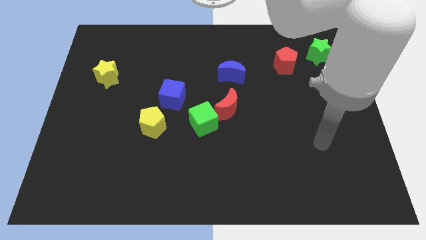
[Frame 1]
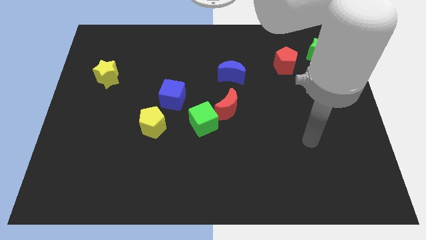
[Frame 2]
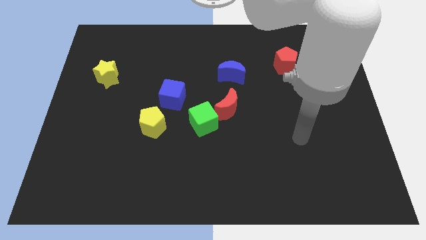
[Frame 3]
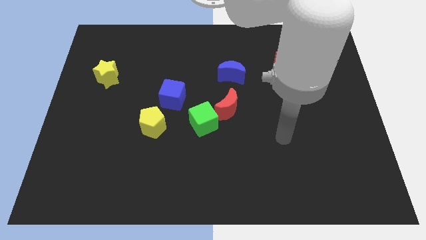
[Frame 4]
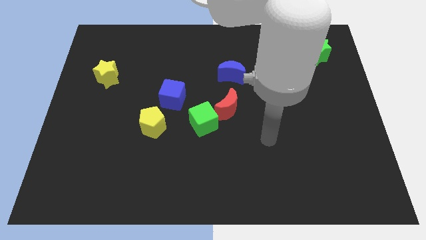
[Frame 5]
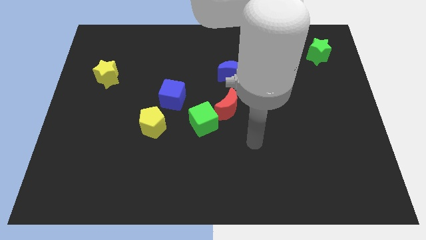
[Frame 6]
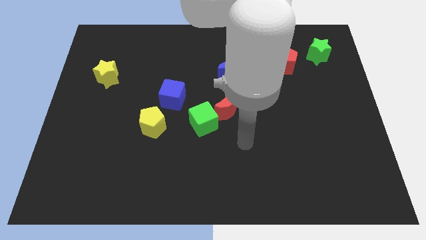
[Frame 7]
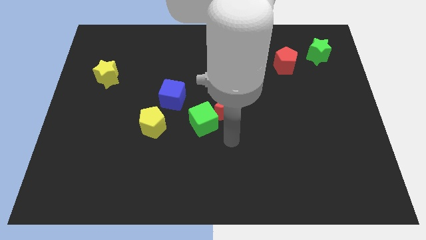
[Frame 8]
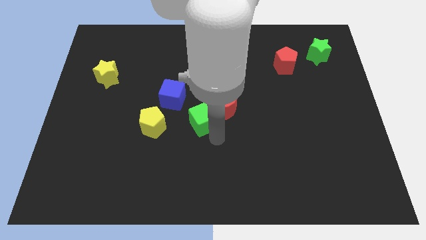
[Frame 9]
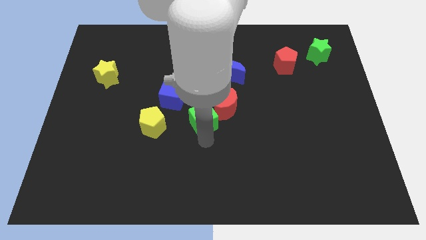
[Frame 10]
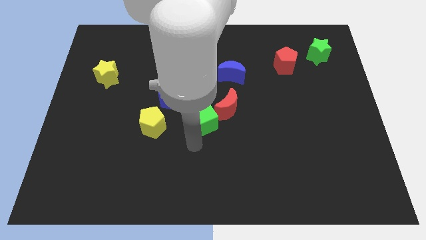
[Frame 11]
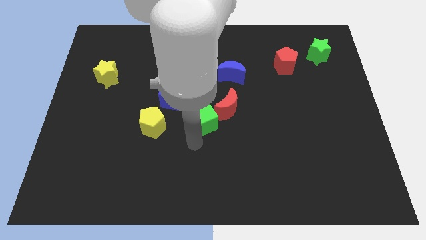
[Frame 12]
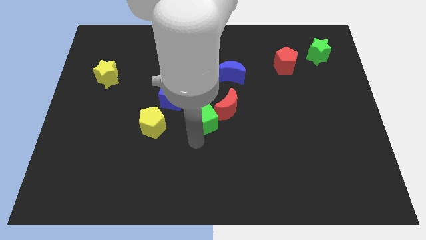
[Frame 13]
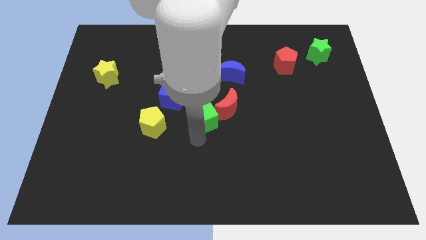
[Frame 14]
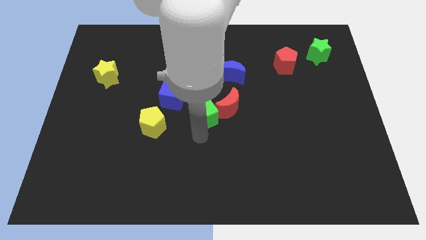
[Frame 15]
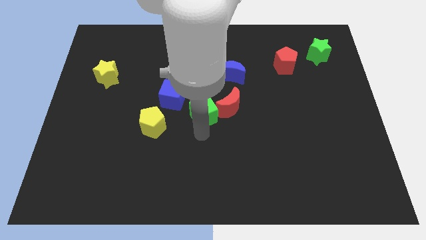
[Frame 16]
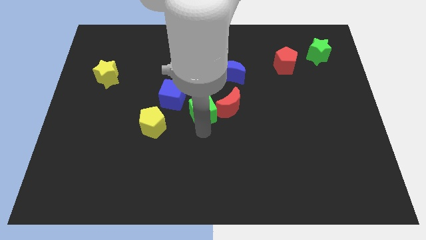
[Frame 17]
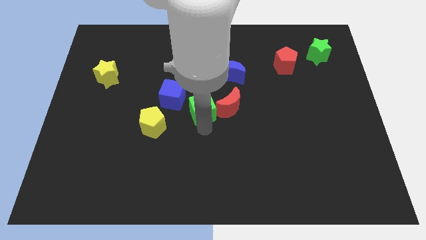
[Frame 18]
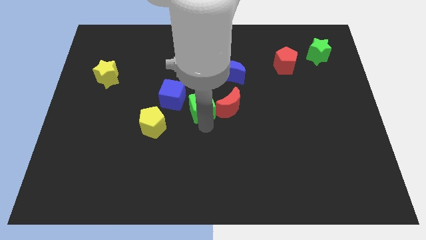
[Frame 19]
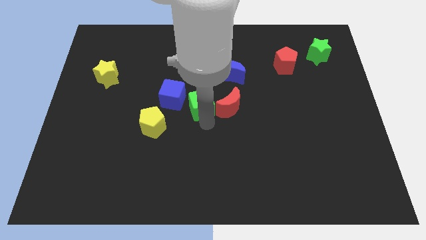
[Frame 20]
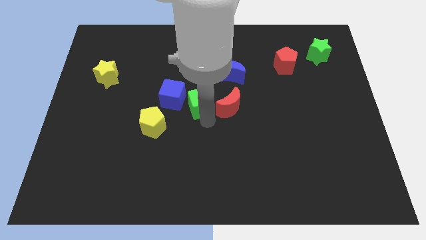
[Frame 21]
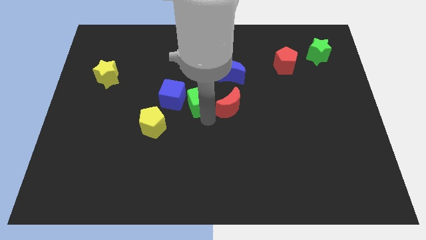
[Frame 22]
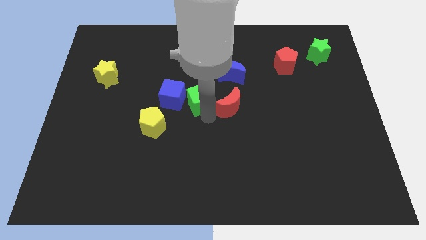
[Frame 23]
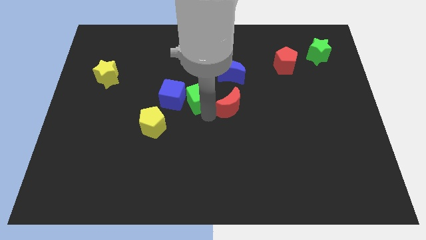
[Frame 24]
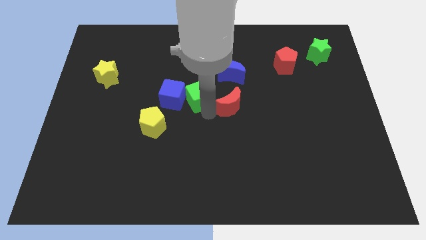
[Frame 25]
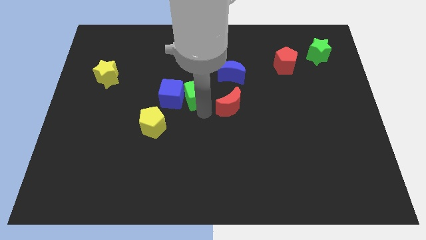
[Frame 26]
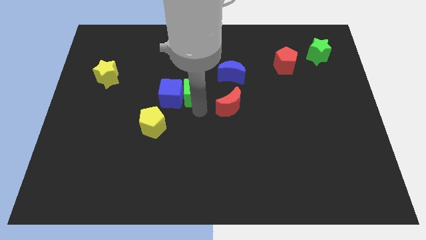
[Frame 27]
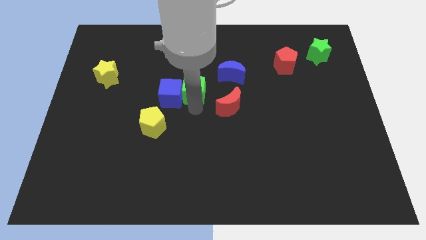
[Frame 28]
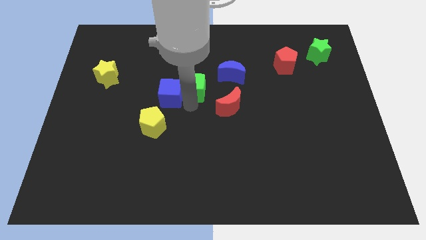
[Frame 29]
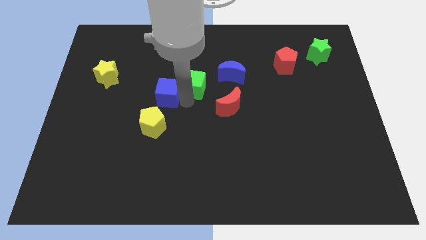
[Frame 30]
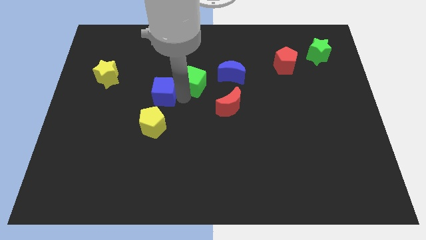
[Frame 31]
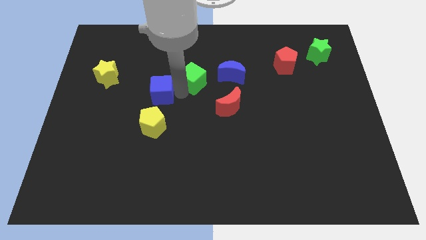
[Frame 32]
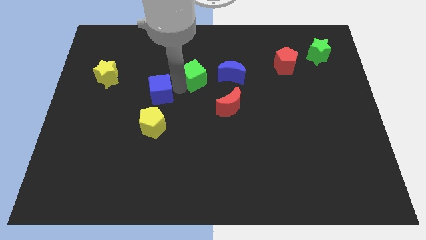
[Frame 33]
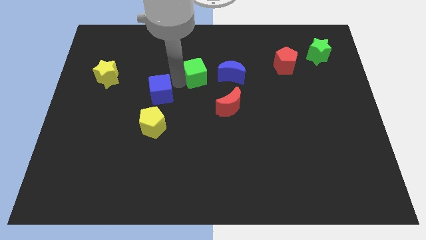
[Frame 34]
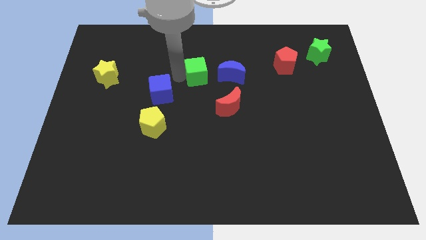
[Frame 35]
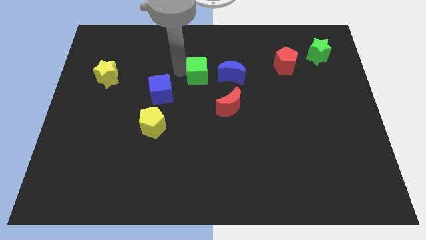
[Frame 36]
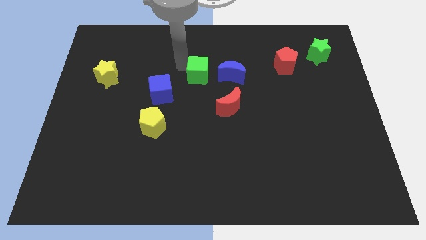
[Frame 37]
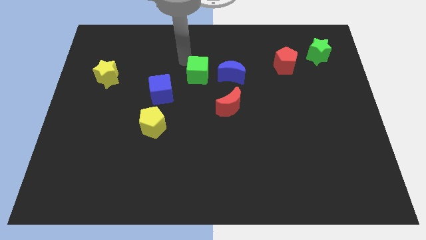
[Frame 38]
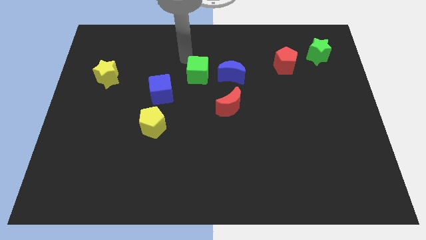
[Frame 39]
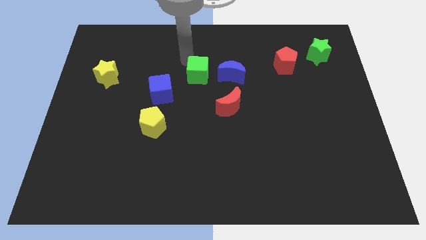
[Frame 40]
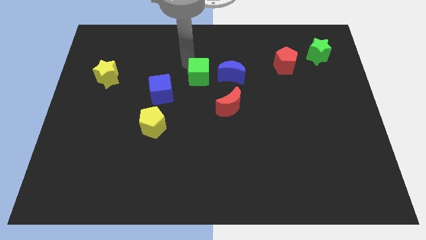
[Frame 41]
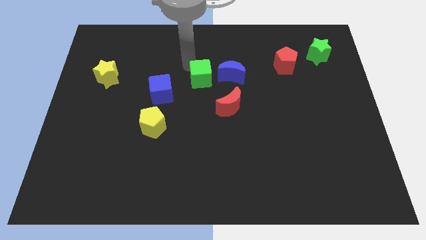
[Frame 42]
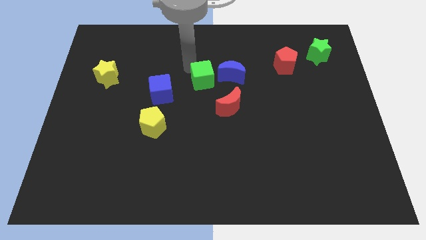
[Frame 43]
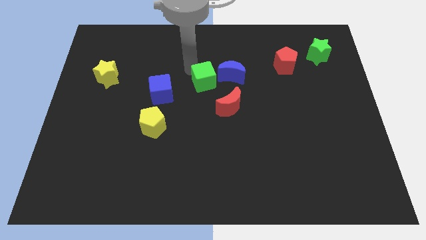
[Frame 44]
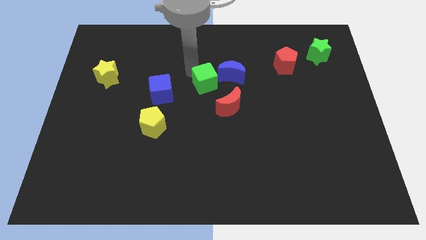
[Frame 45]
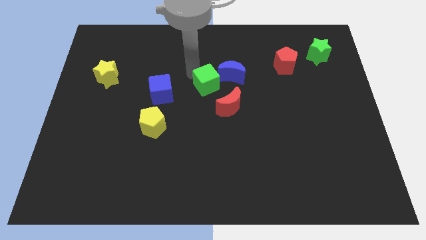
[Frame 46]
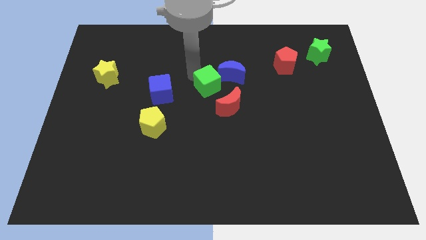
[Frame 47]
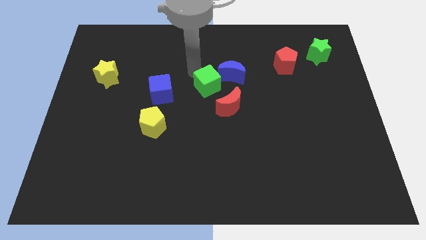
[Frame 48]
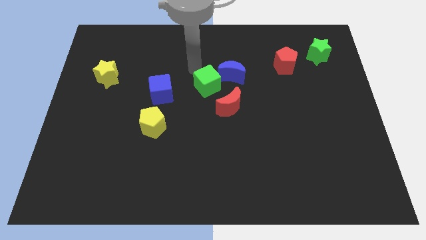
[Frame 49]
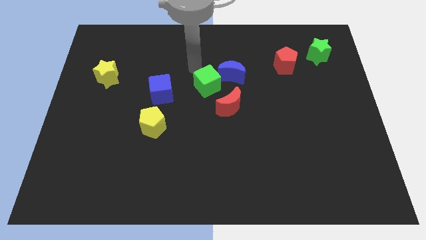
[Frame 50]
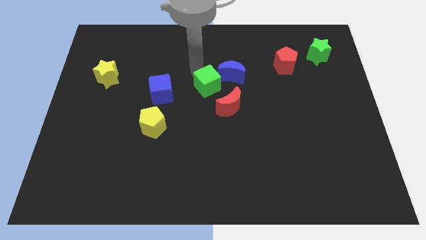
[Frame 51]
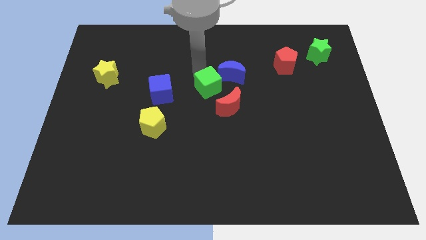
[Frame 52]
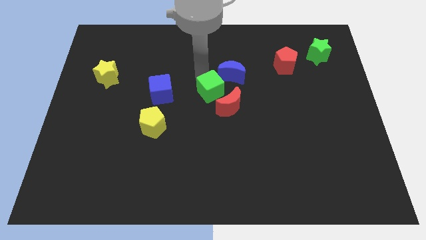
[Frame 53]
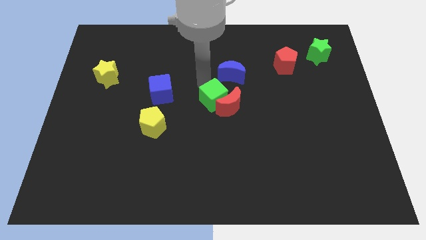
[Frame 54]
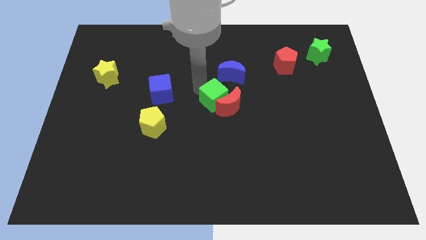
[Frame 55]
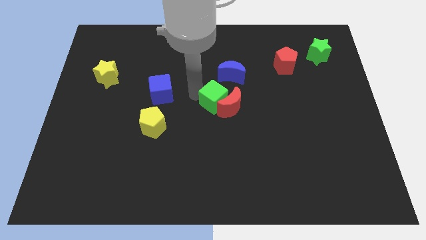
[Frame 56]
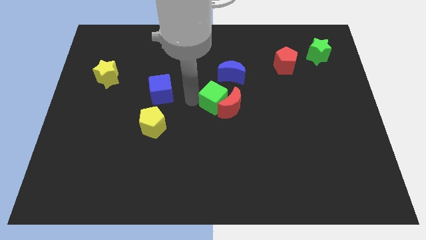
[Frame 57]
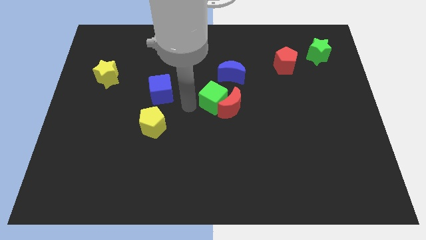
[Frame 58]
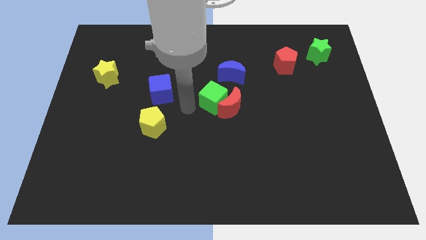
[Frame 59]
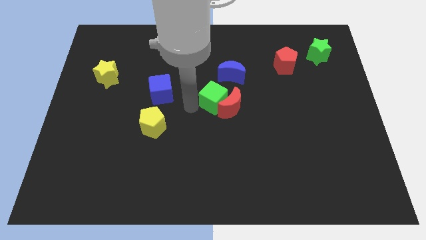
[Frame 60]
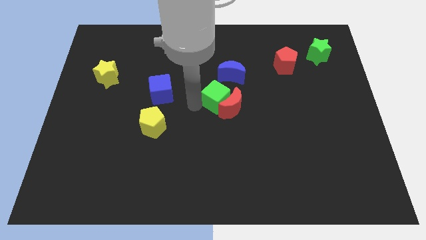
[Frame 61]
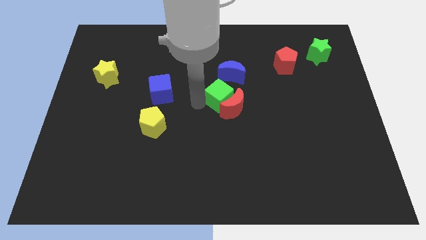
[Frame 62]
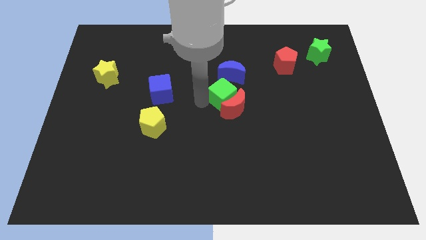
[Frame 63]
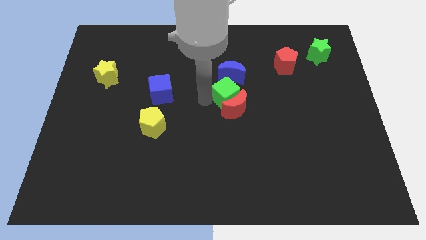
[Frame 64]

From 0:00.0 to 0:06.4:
move the green cube to the top right side of the red moon

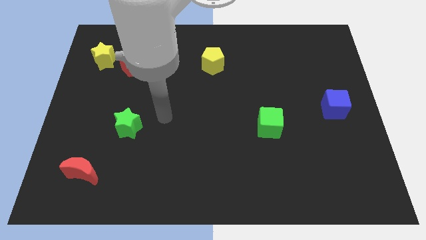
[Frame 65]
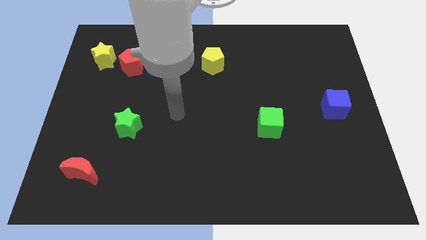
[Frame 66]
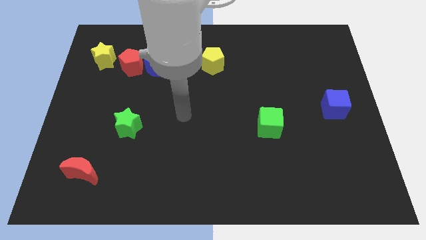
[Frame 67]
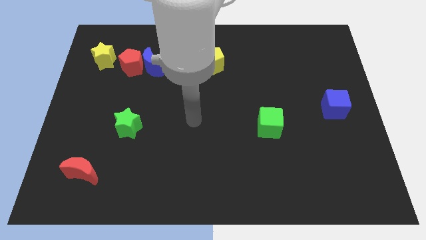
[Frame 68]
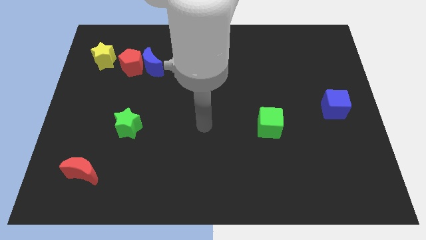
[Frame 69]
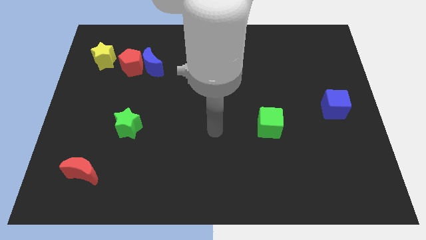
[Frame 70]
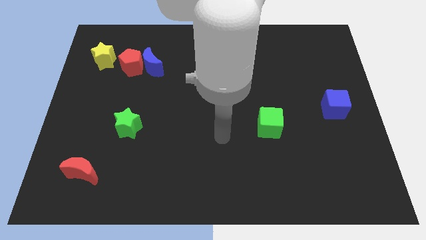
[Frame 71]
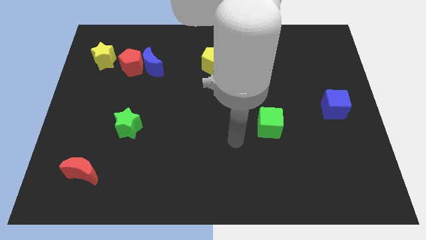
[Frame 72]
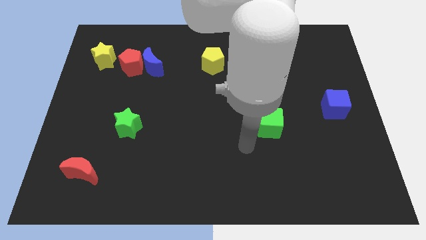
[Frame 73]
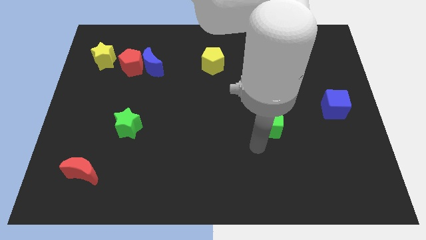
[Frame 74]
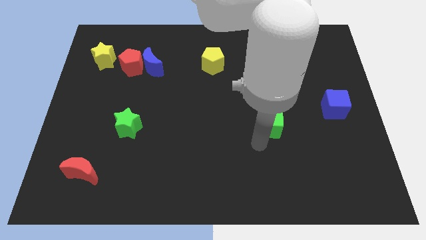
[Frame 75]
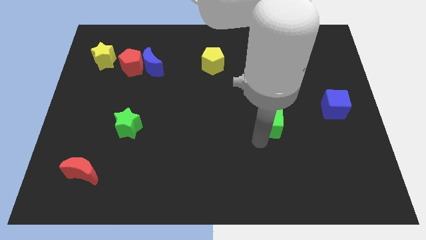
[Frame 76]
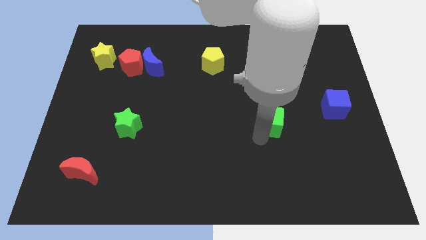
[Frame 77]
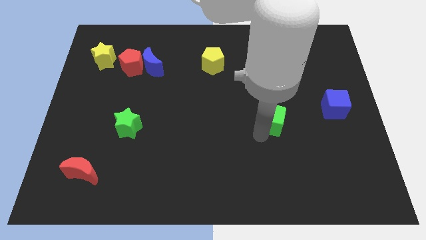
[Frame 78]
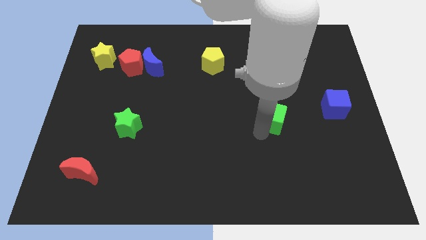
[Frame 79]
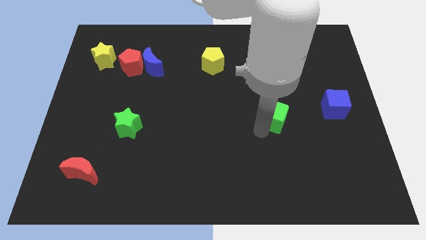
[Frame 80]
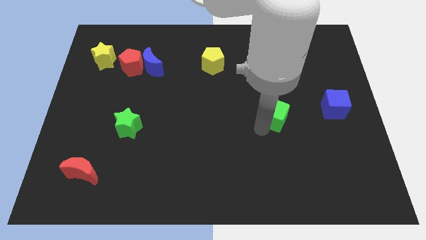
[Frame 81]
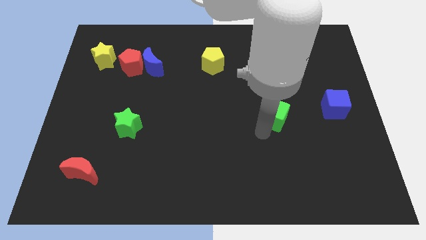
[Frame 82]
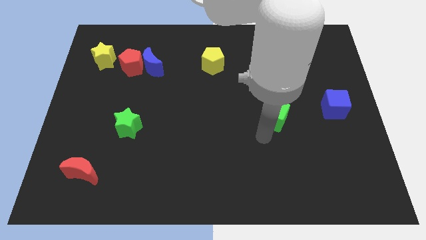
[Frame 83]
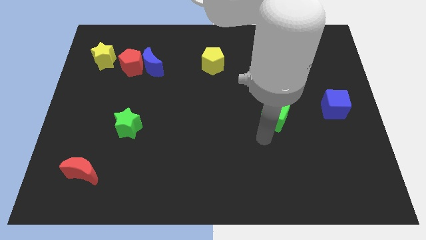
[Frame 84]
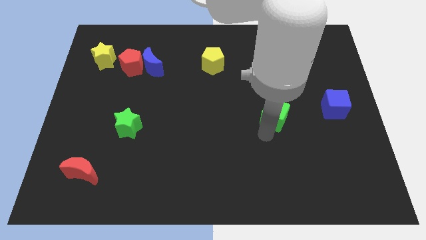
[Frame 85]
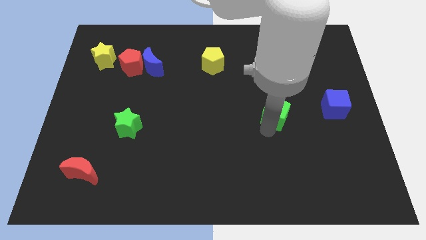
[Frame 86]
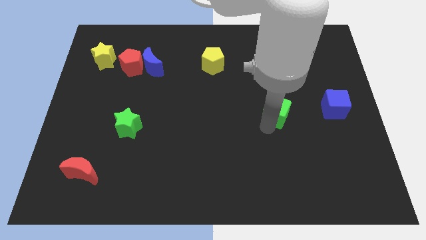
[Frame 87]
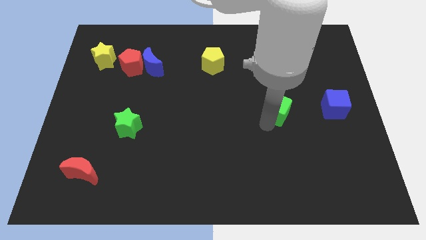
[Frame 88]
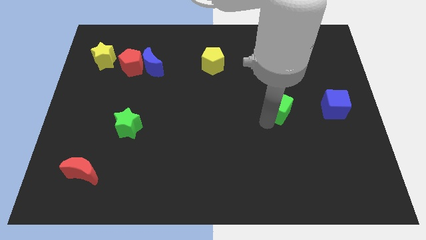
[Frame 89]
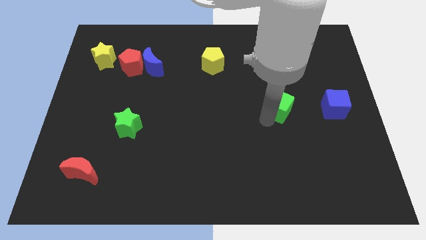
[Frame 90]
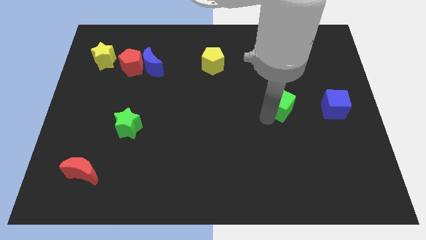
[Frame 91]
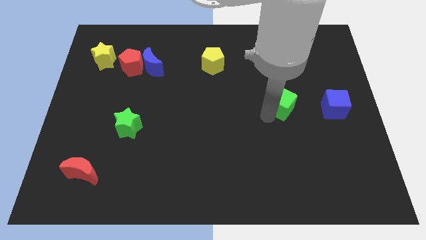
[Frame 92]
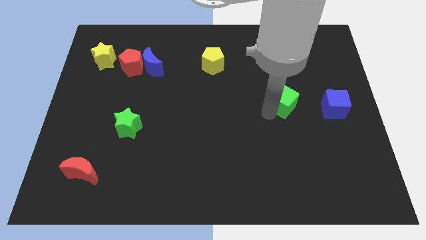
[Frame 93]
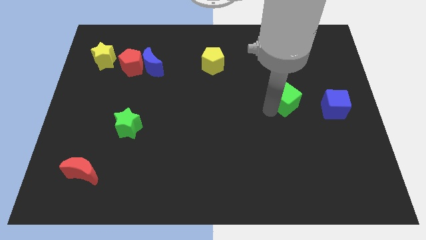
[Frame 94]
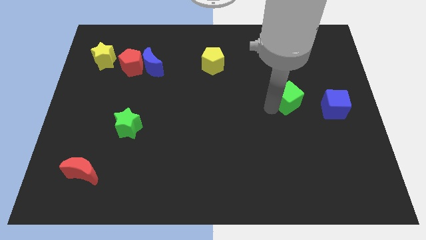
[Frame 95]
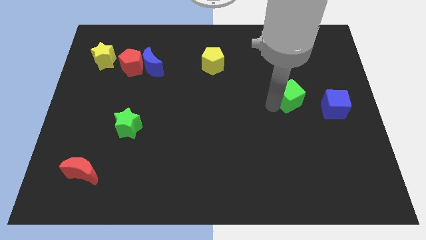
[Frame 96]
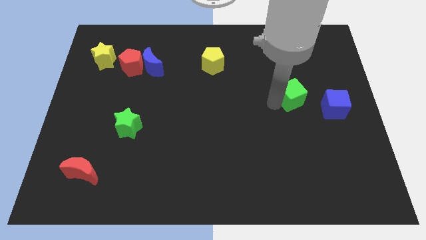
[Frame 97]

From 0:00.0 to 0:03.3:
slide the green cube to the top left side of the blue cube
